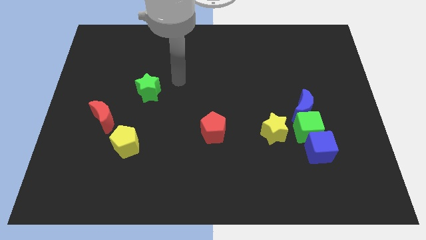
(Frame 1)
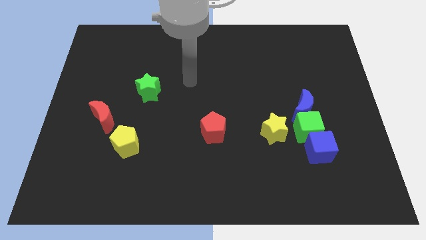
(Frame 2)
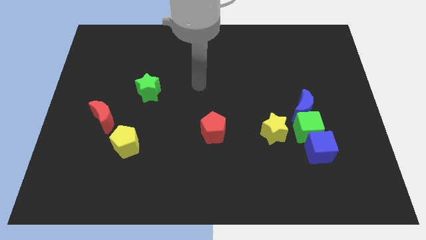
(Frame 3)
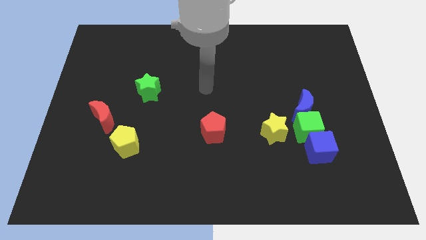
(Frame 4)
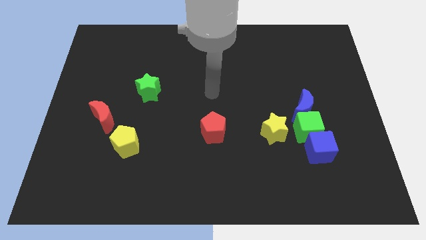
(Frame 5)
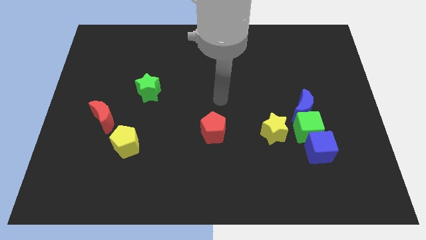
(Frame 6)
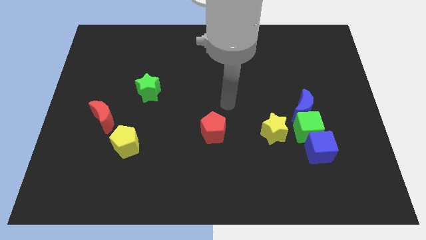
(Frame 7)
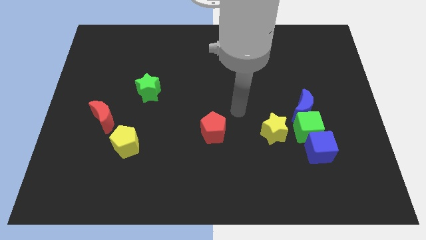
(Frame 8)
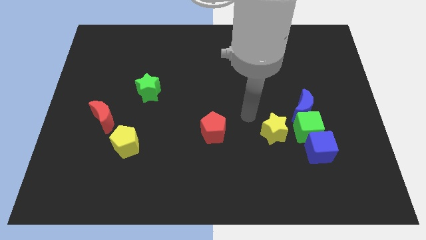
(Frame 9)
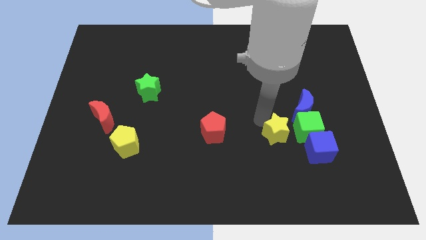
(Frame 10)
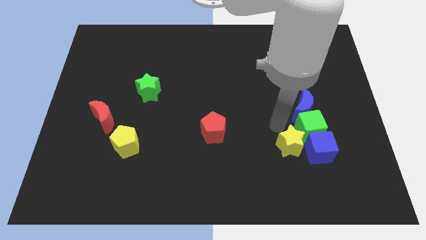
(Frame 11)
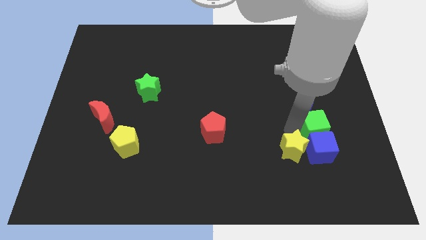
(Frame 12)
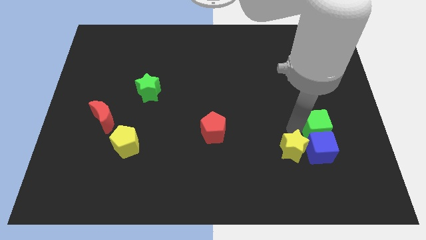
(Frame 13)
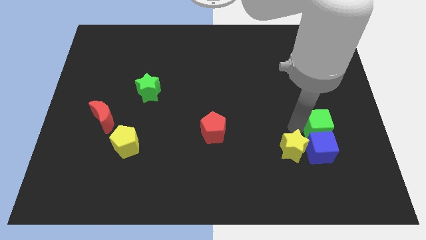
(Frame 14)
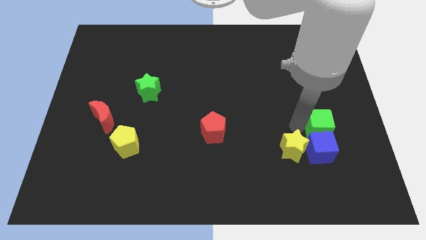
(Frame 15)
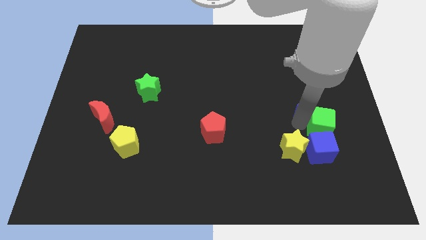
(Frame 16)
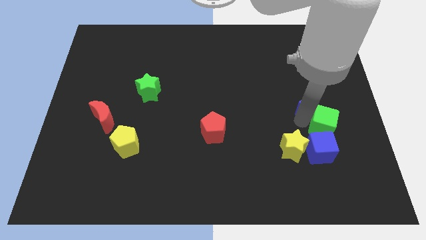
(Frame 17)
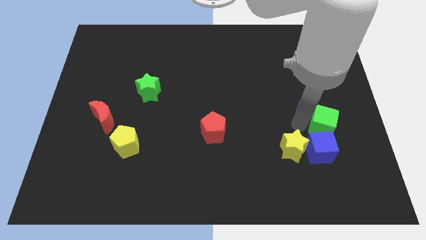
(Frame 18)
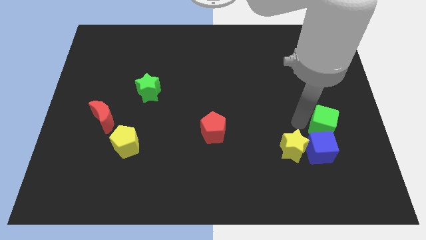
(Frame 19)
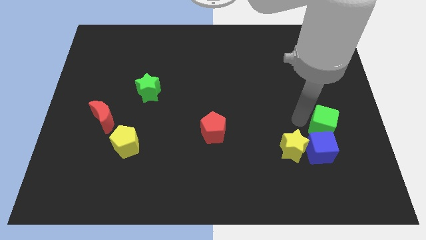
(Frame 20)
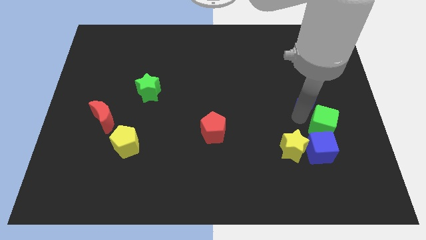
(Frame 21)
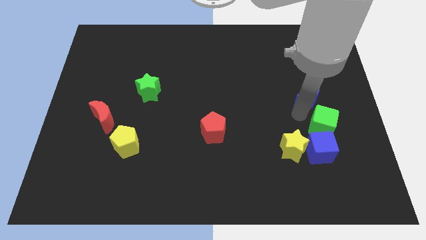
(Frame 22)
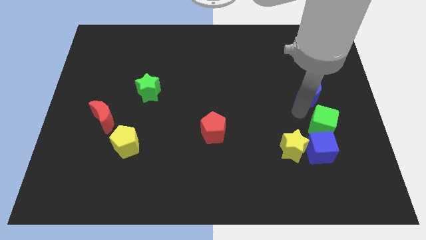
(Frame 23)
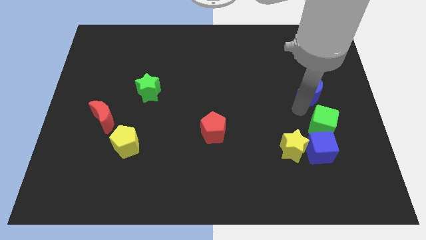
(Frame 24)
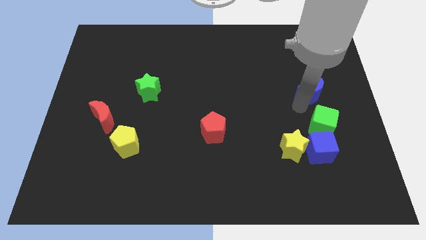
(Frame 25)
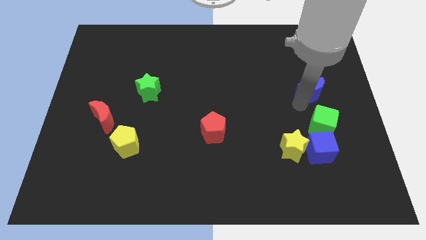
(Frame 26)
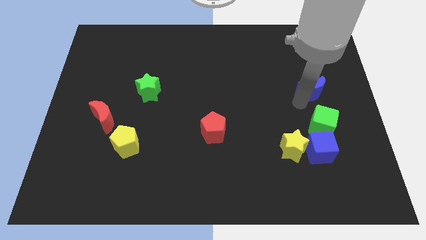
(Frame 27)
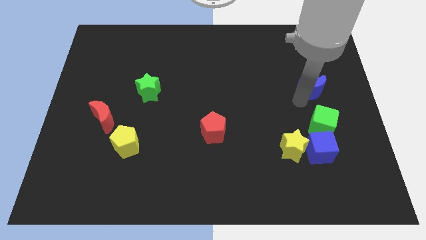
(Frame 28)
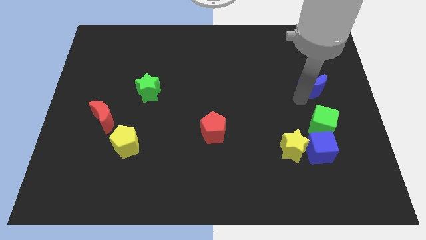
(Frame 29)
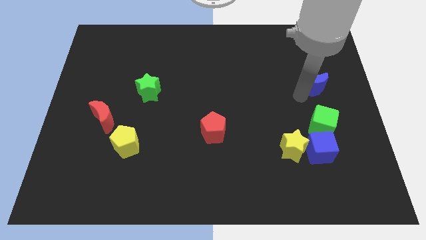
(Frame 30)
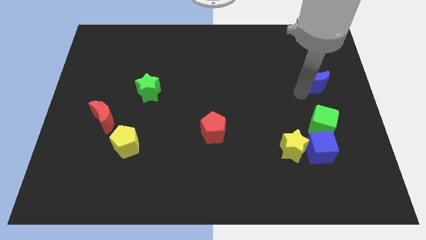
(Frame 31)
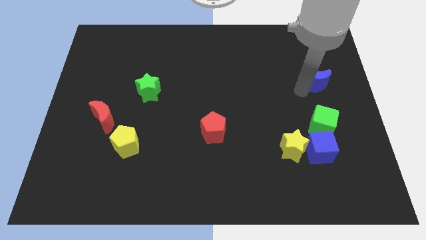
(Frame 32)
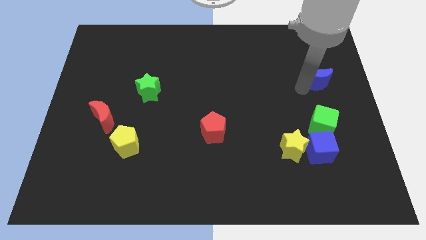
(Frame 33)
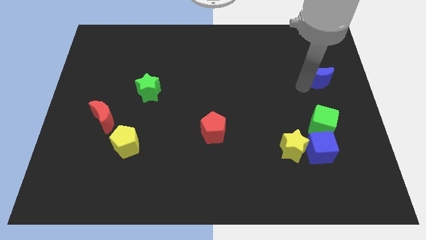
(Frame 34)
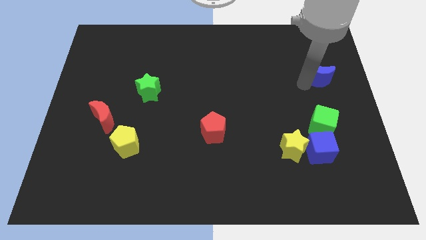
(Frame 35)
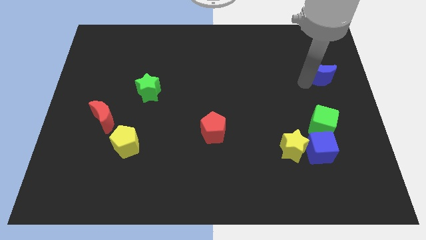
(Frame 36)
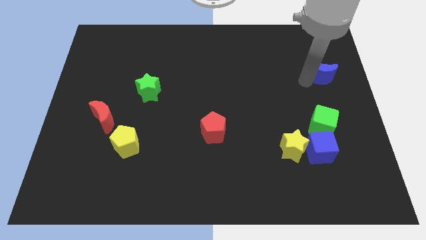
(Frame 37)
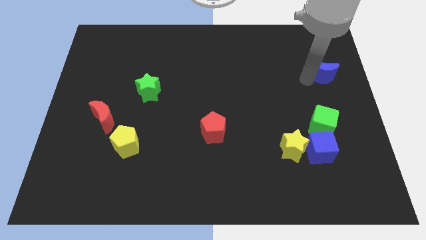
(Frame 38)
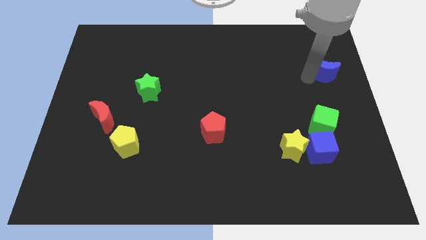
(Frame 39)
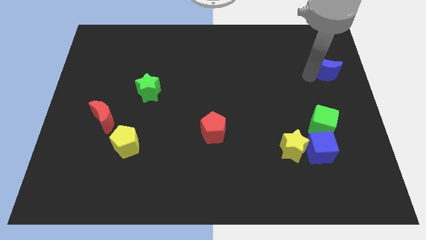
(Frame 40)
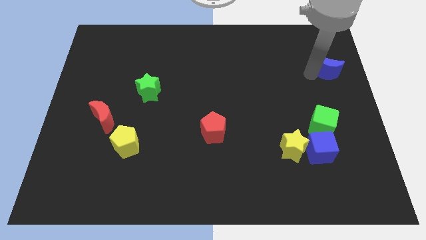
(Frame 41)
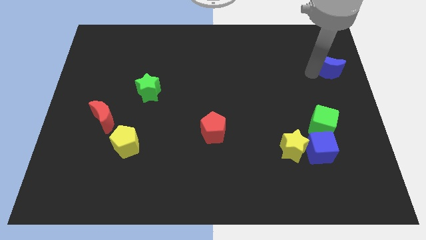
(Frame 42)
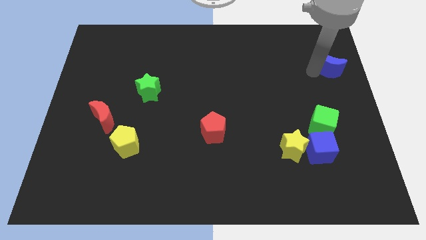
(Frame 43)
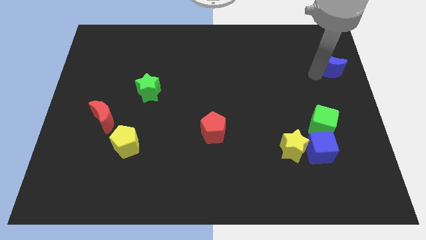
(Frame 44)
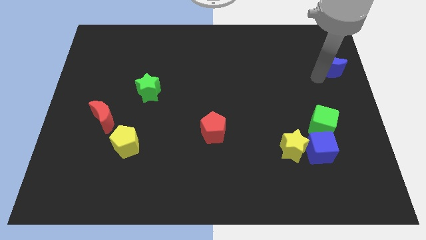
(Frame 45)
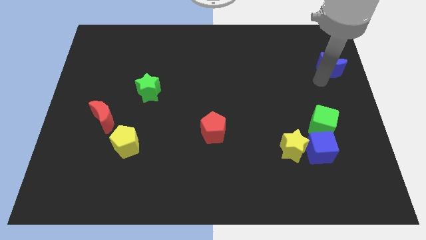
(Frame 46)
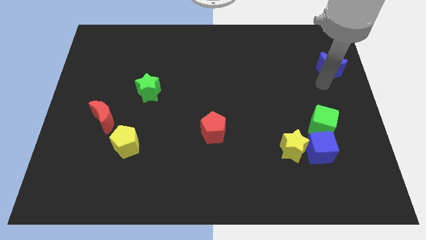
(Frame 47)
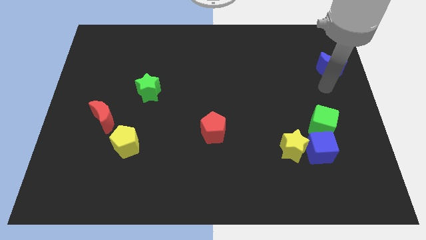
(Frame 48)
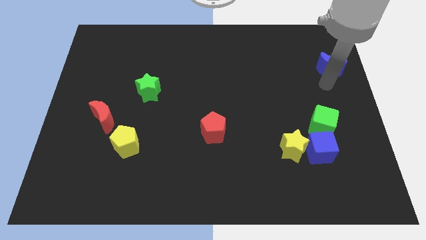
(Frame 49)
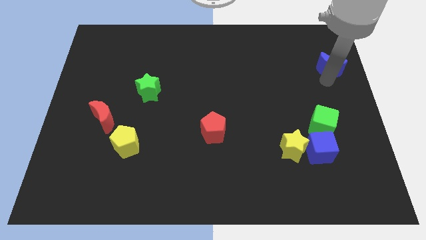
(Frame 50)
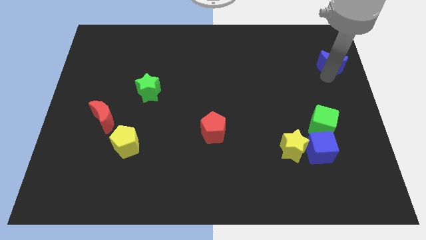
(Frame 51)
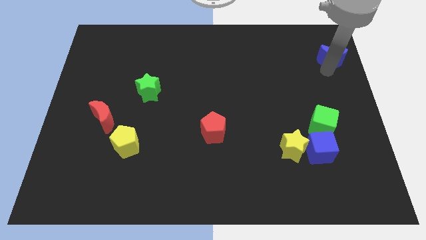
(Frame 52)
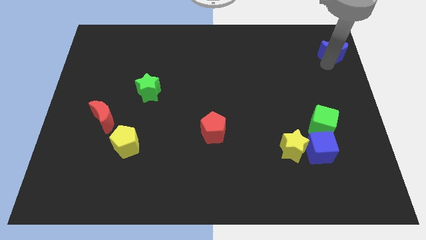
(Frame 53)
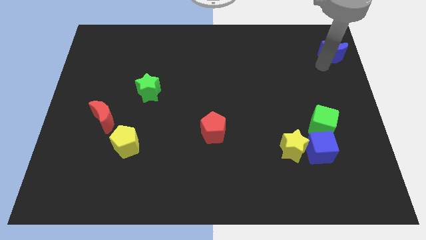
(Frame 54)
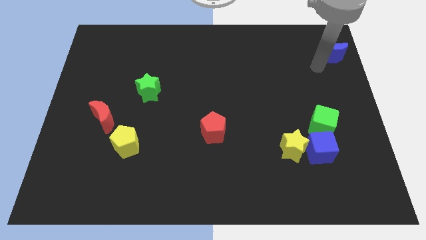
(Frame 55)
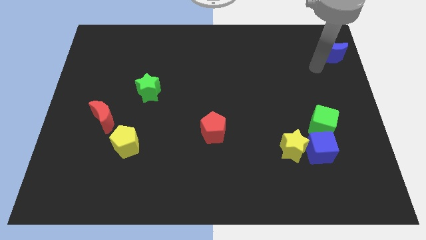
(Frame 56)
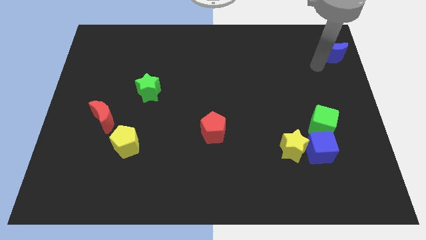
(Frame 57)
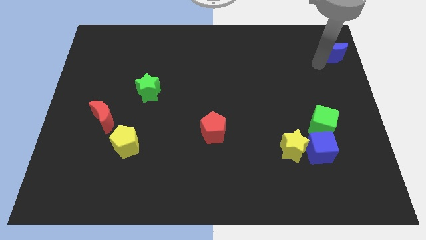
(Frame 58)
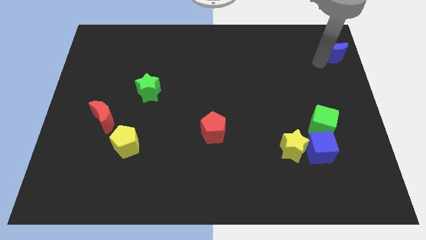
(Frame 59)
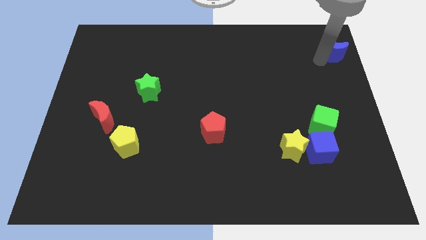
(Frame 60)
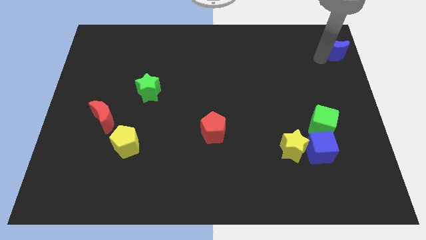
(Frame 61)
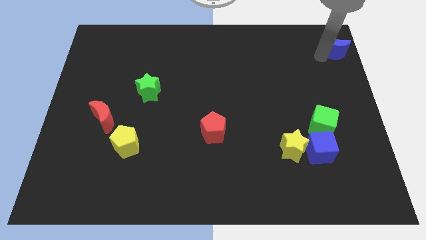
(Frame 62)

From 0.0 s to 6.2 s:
slide the blue moon to the top right
